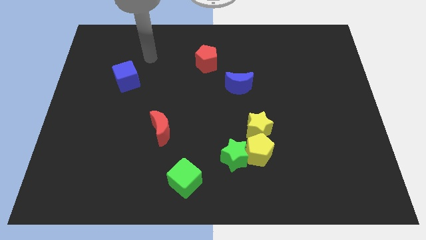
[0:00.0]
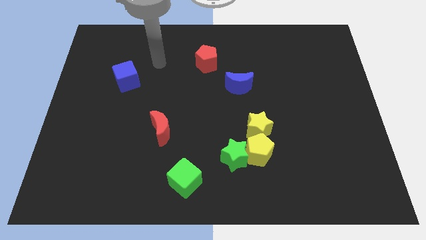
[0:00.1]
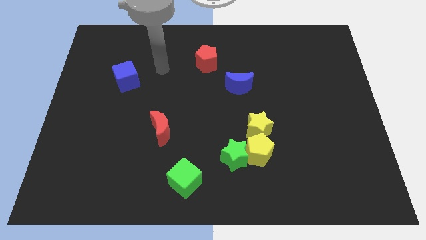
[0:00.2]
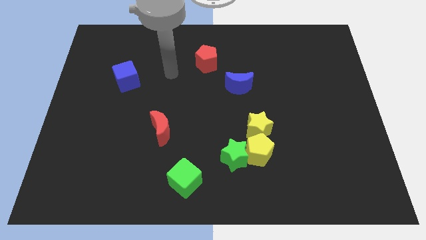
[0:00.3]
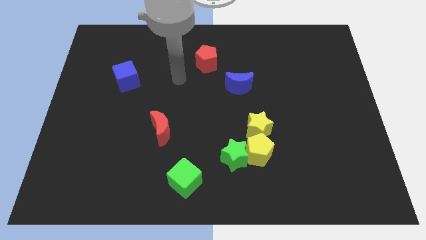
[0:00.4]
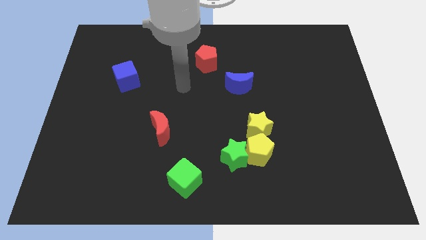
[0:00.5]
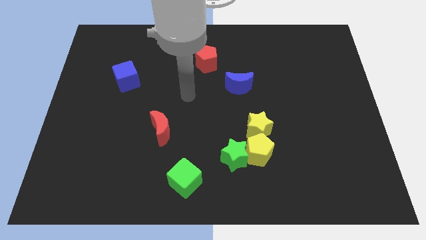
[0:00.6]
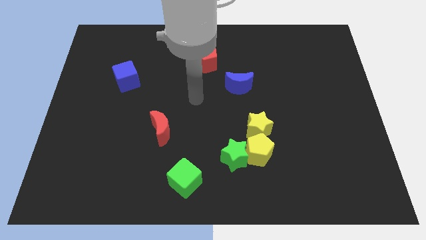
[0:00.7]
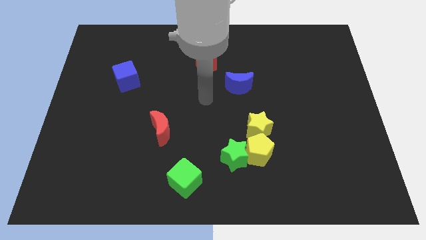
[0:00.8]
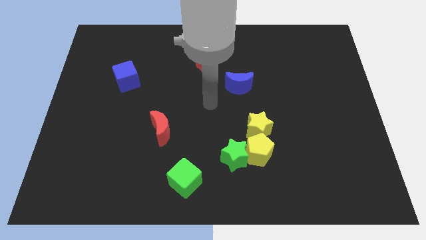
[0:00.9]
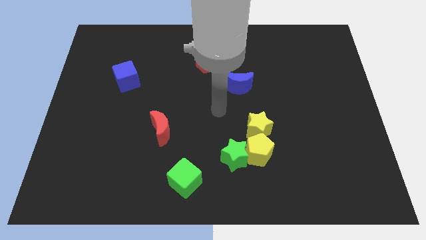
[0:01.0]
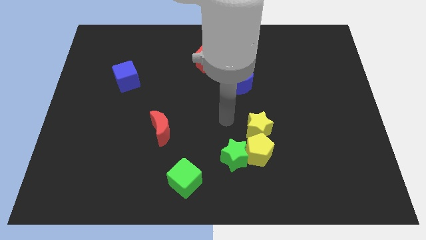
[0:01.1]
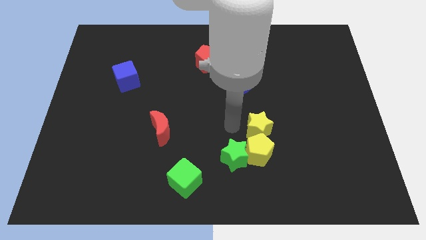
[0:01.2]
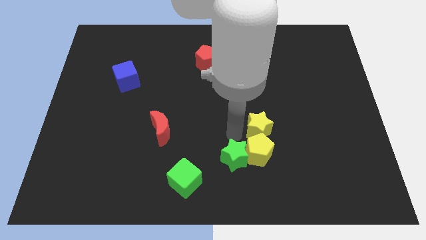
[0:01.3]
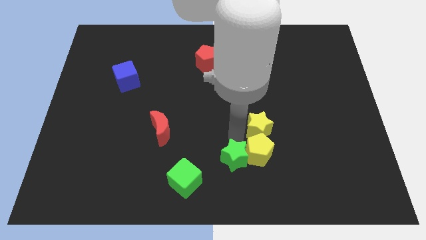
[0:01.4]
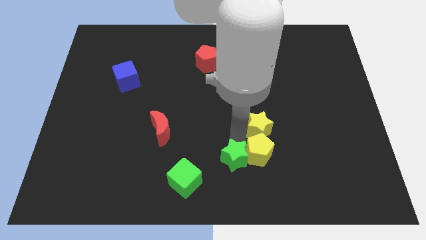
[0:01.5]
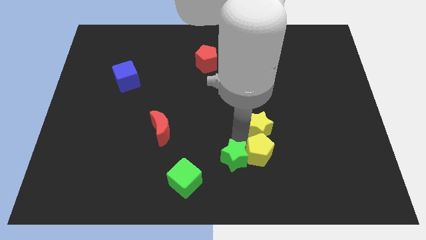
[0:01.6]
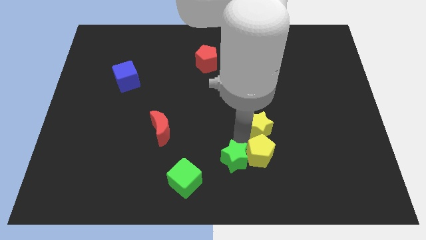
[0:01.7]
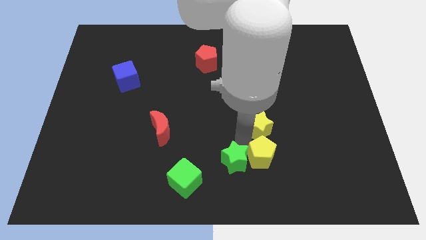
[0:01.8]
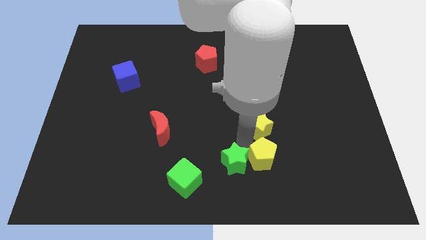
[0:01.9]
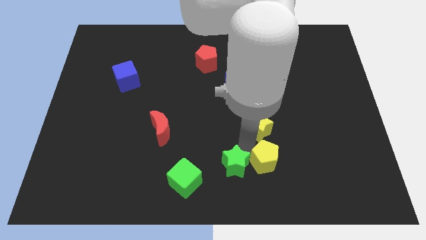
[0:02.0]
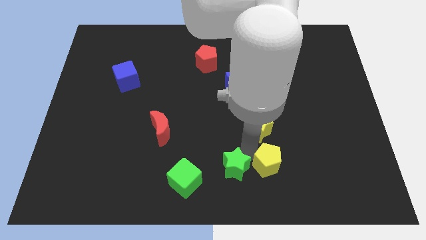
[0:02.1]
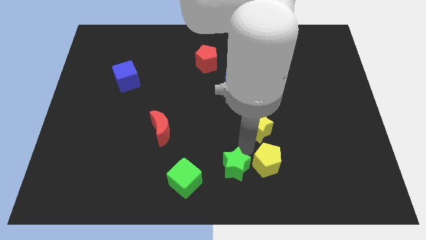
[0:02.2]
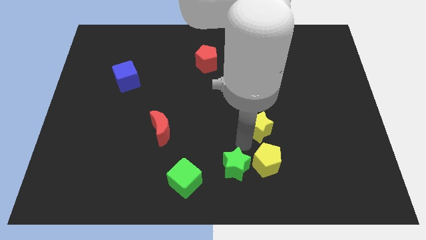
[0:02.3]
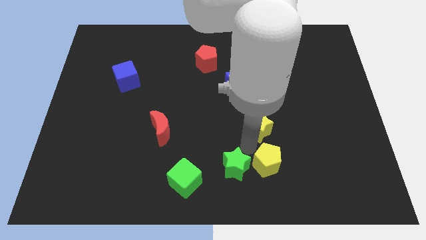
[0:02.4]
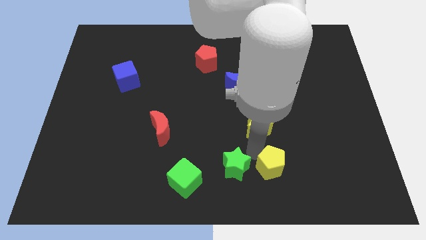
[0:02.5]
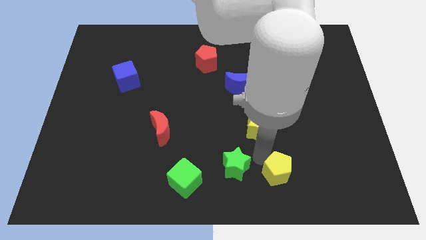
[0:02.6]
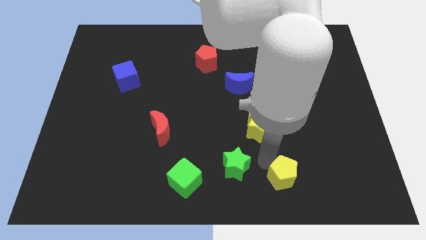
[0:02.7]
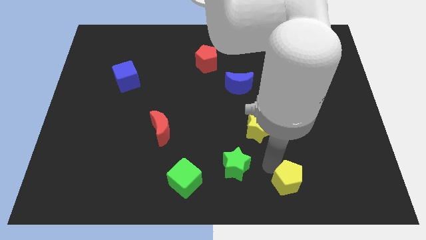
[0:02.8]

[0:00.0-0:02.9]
move the yellow pentagon away from the green star and yellow star

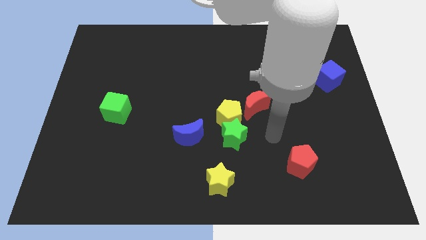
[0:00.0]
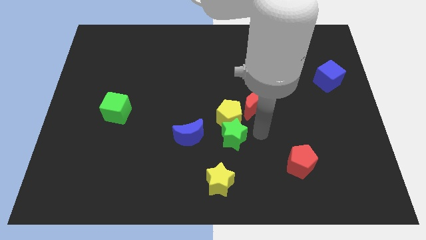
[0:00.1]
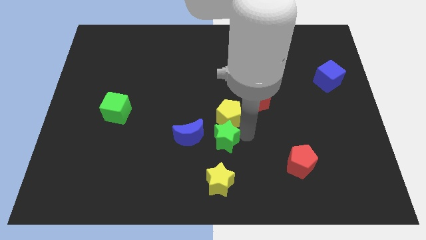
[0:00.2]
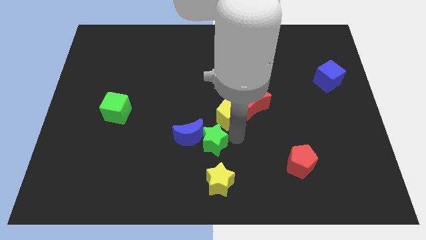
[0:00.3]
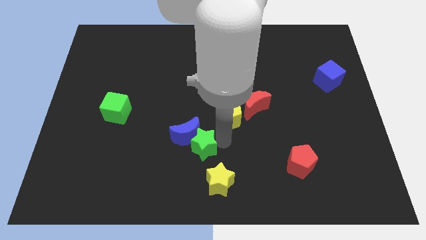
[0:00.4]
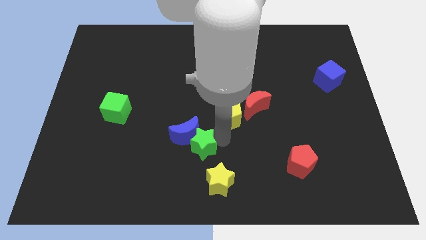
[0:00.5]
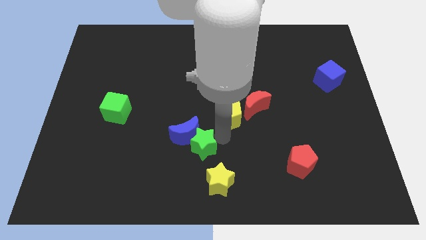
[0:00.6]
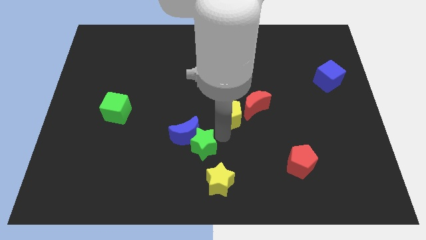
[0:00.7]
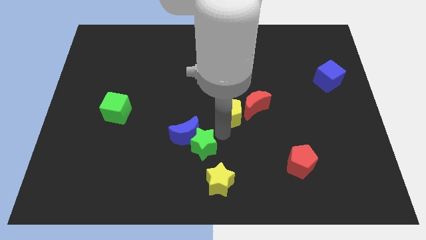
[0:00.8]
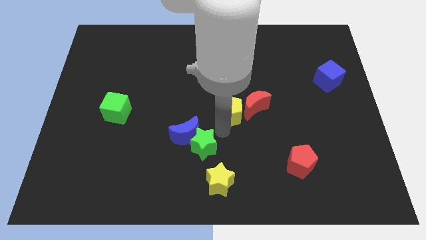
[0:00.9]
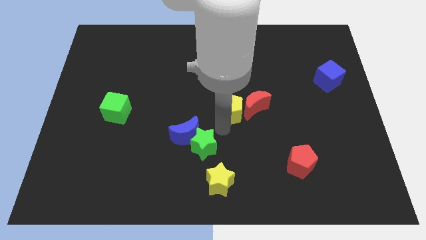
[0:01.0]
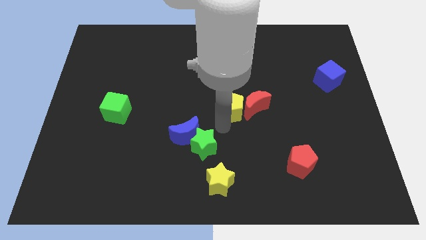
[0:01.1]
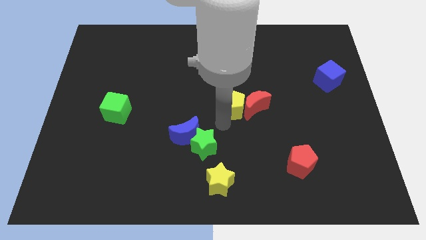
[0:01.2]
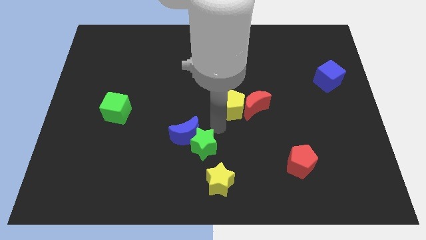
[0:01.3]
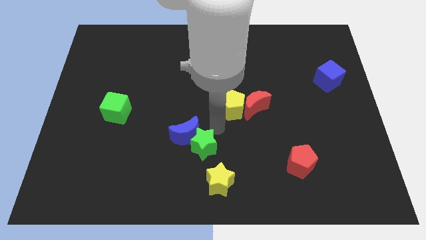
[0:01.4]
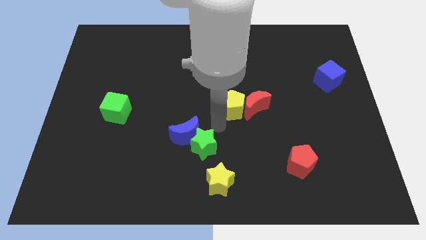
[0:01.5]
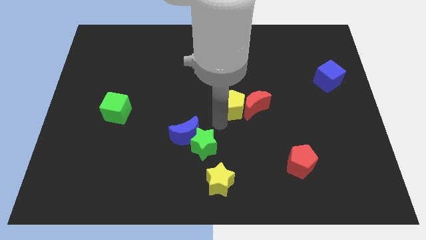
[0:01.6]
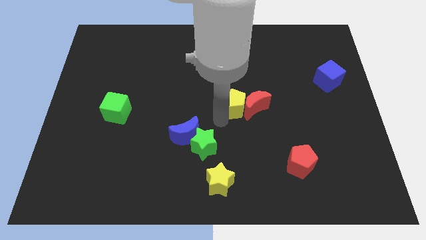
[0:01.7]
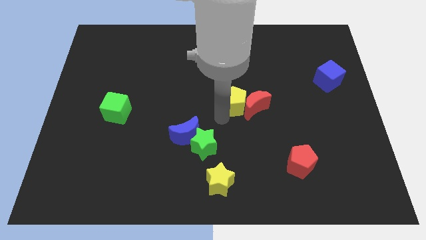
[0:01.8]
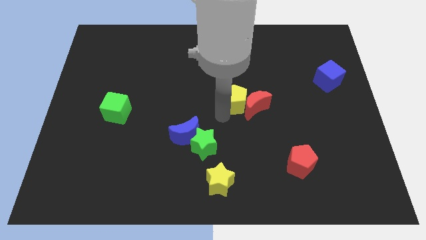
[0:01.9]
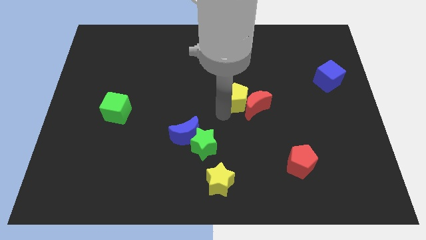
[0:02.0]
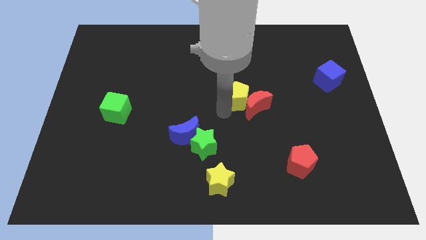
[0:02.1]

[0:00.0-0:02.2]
separate the yellow pentagon from the group of blocks

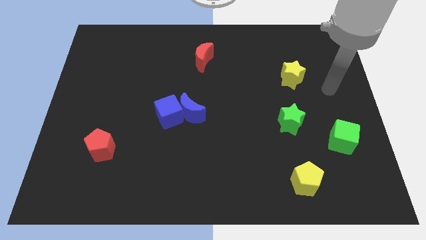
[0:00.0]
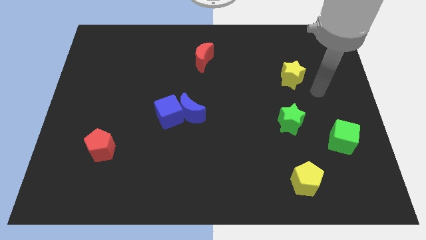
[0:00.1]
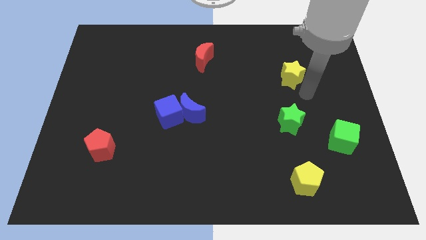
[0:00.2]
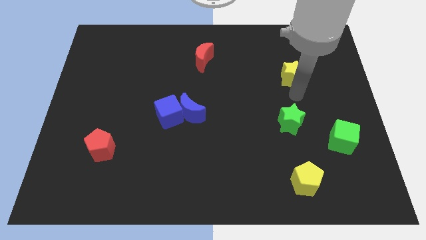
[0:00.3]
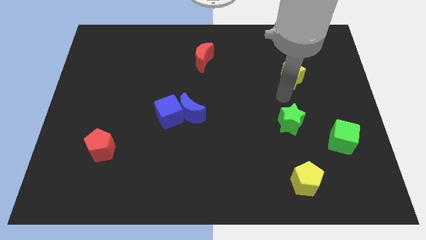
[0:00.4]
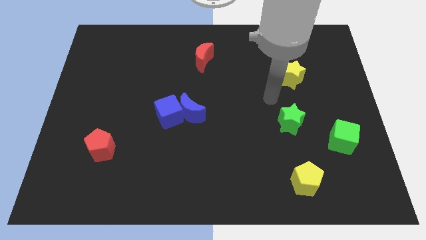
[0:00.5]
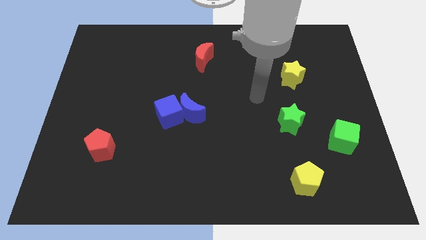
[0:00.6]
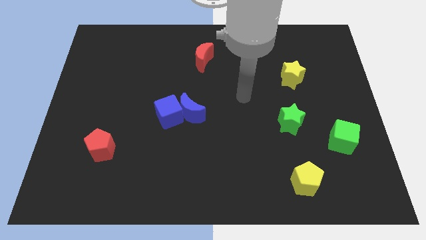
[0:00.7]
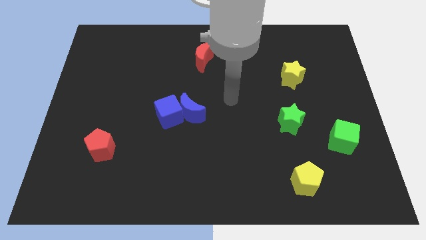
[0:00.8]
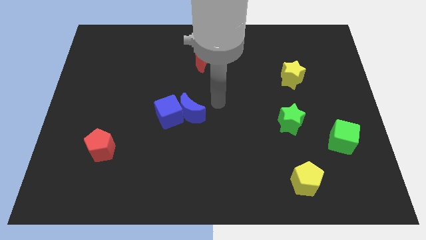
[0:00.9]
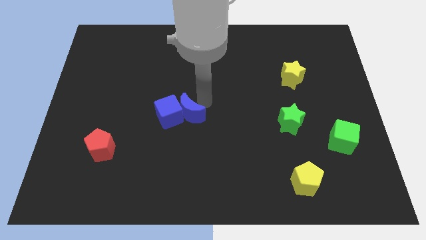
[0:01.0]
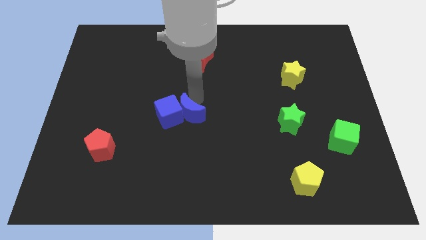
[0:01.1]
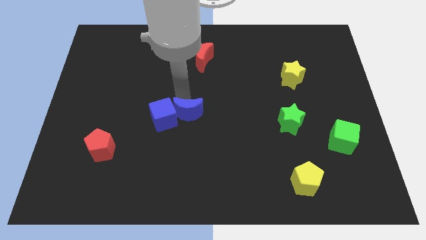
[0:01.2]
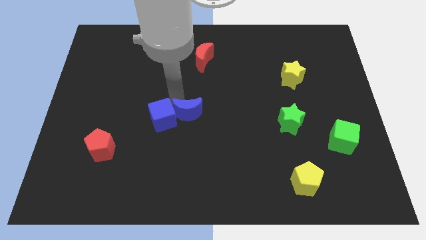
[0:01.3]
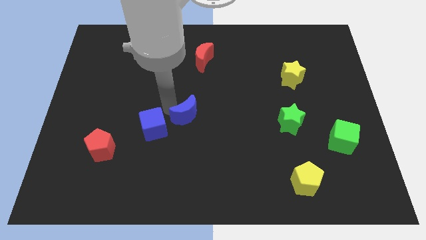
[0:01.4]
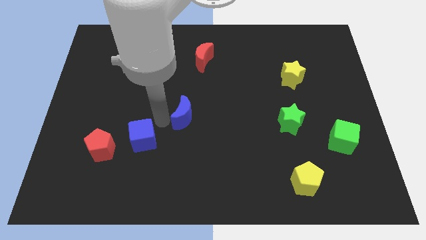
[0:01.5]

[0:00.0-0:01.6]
separate the blue moon from the blue cube

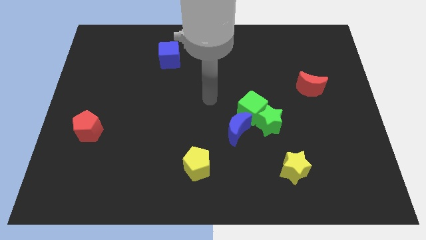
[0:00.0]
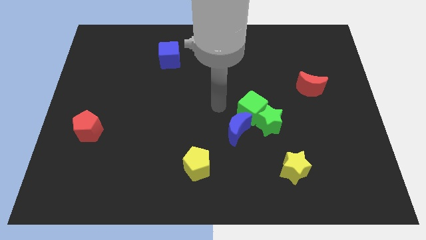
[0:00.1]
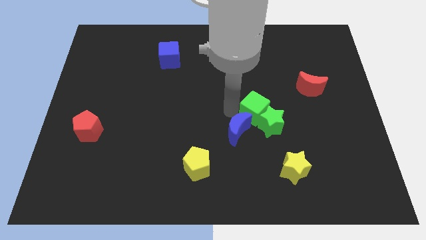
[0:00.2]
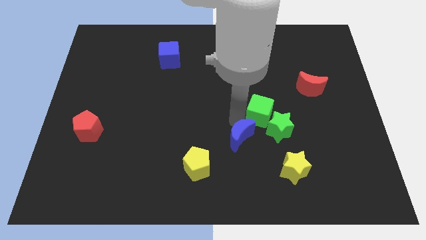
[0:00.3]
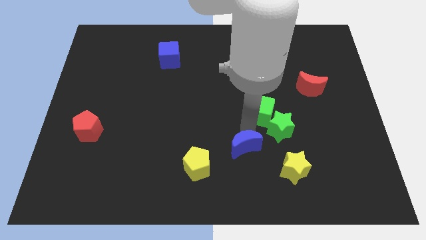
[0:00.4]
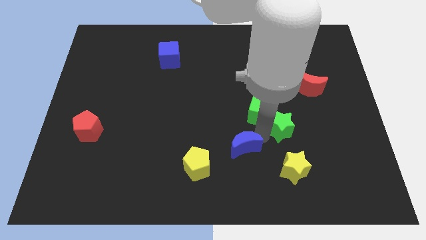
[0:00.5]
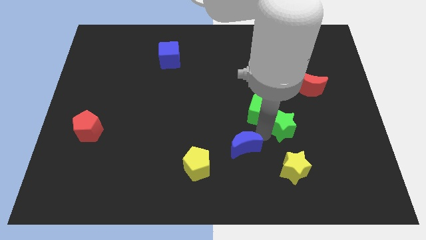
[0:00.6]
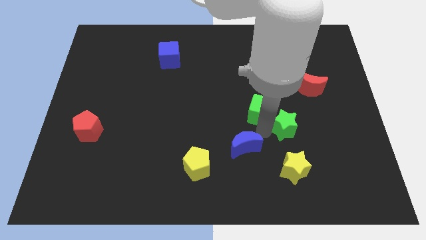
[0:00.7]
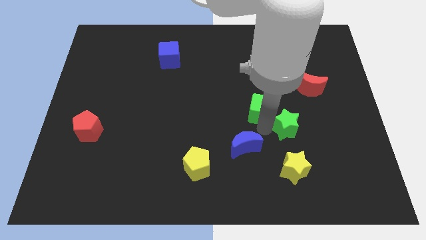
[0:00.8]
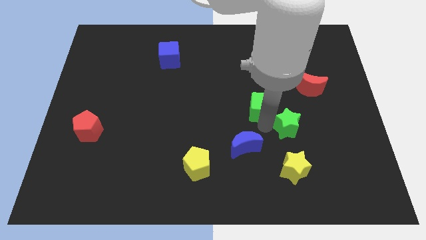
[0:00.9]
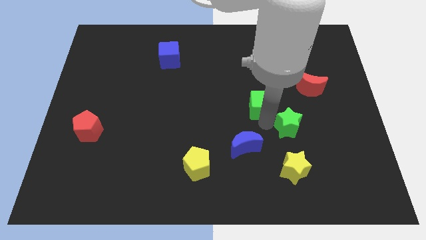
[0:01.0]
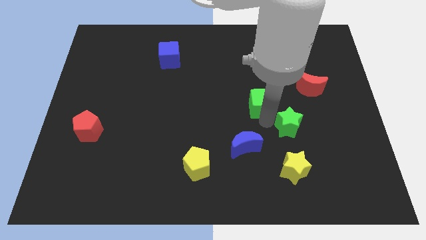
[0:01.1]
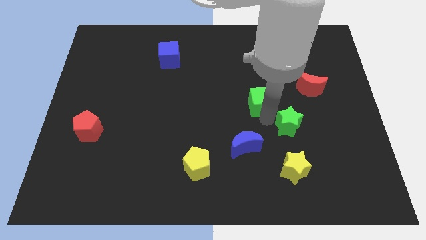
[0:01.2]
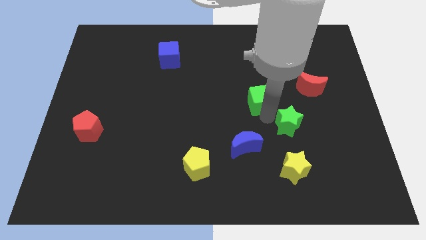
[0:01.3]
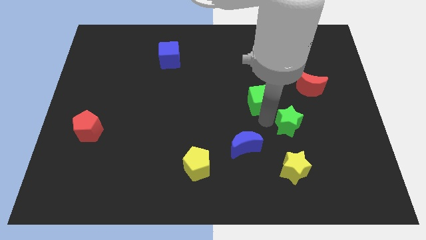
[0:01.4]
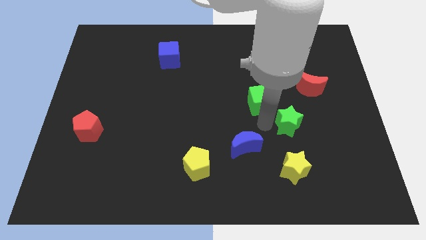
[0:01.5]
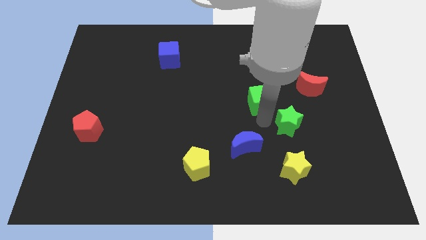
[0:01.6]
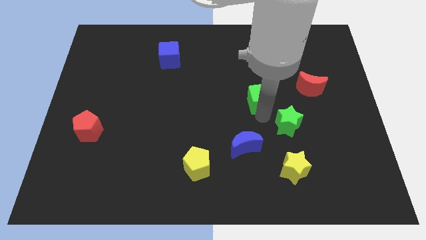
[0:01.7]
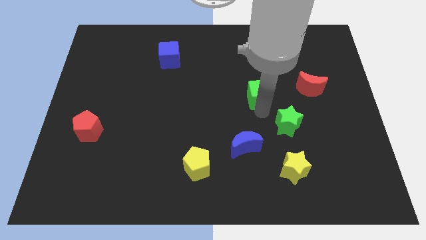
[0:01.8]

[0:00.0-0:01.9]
move the green cube away from the green star and blue moon

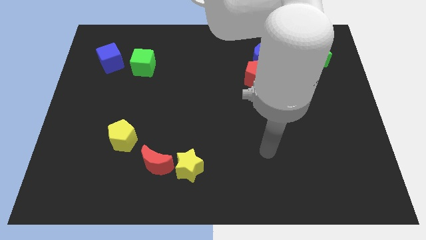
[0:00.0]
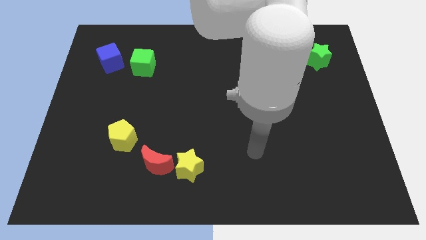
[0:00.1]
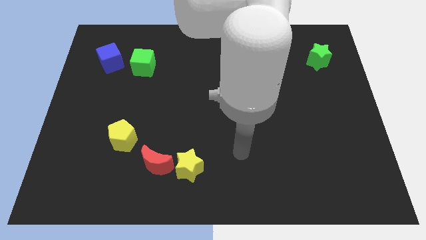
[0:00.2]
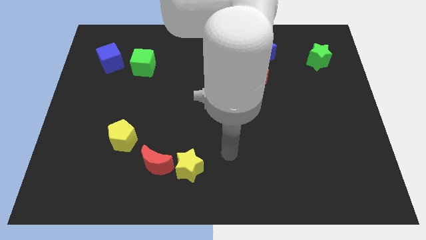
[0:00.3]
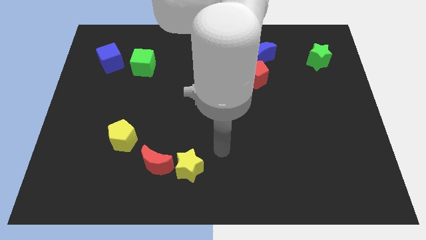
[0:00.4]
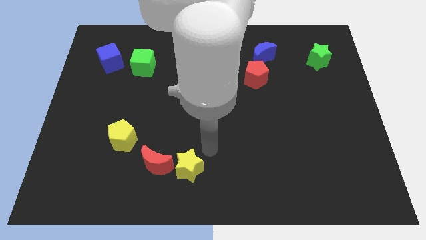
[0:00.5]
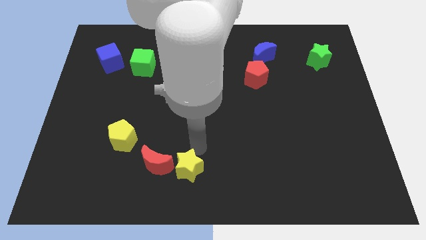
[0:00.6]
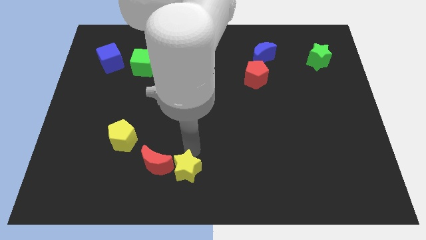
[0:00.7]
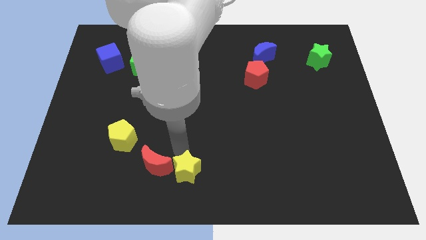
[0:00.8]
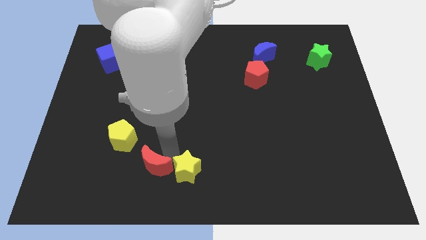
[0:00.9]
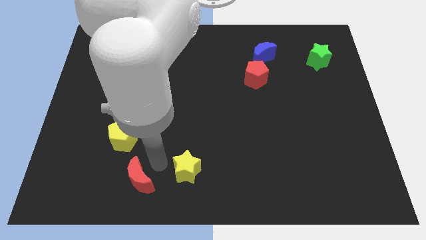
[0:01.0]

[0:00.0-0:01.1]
separate the yellow star from the red moon
